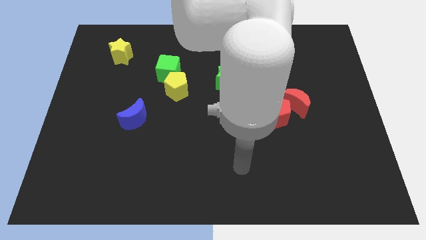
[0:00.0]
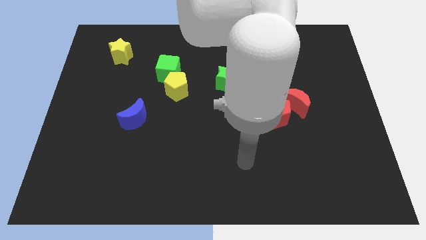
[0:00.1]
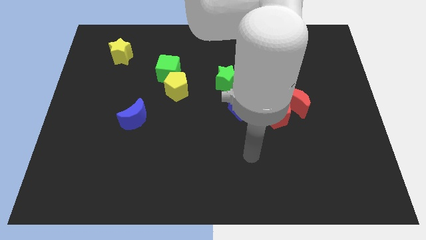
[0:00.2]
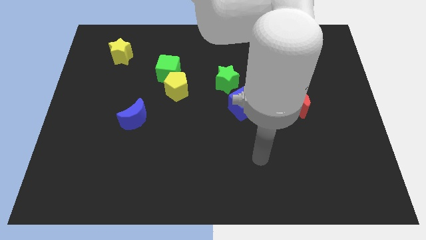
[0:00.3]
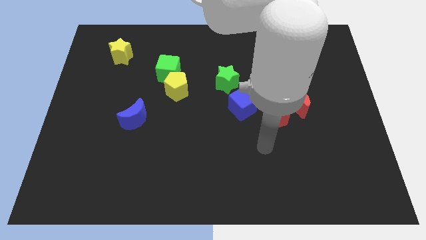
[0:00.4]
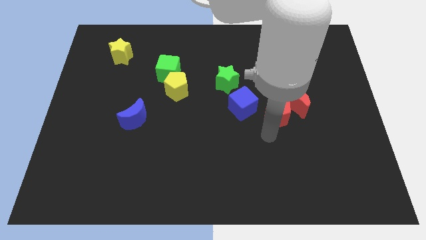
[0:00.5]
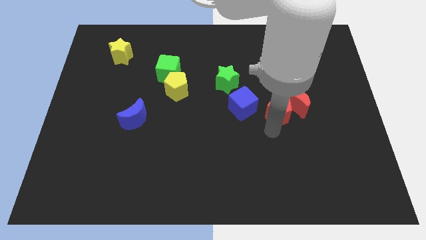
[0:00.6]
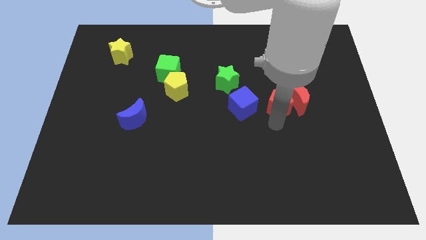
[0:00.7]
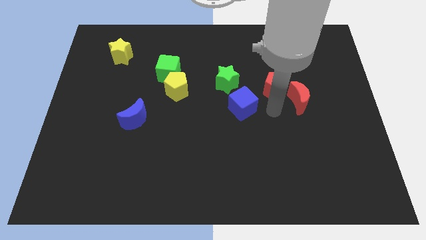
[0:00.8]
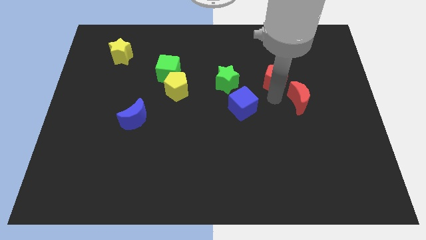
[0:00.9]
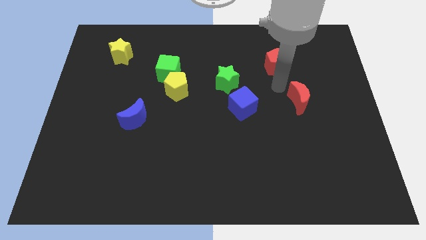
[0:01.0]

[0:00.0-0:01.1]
separate the red moon from the red pentagon

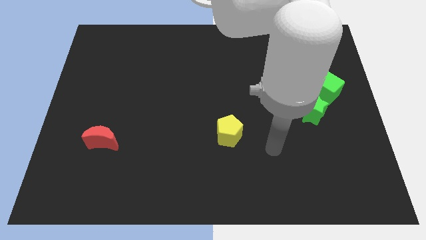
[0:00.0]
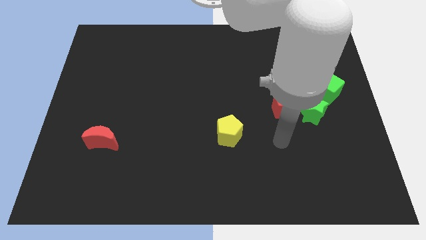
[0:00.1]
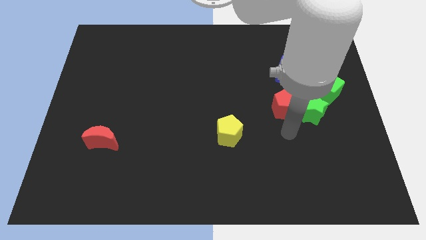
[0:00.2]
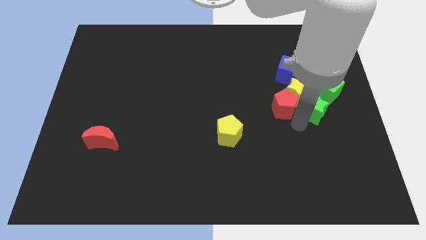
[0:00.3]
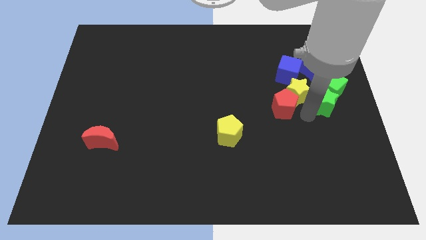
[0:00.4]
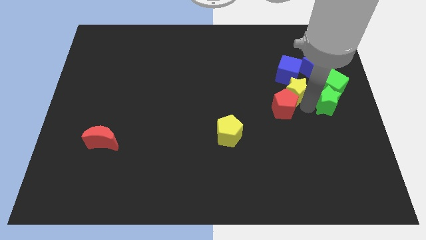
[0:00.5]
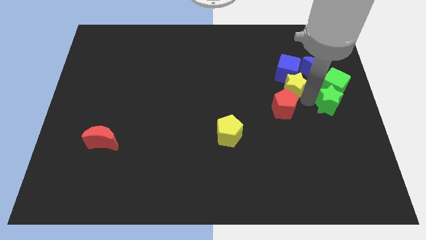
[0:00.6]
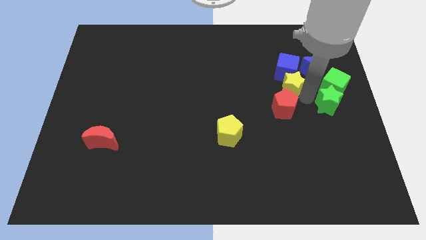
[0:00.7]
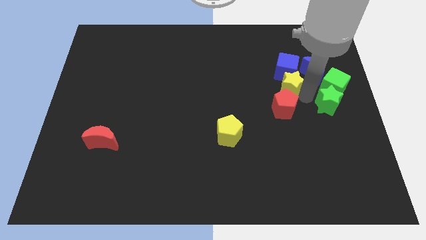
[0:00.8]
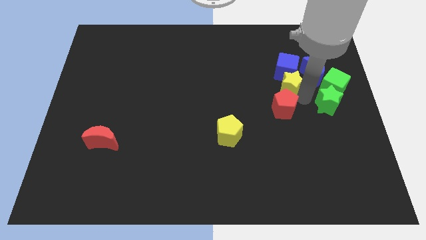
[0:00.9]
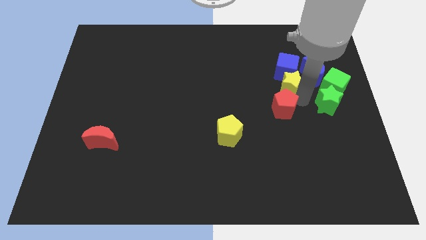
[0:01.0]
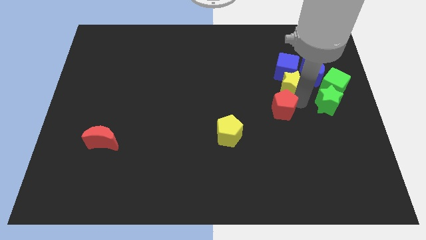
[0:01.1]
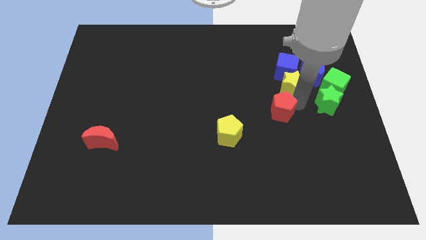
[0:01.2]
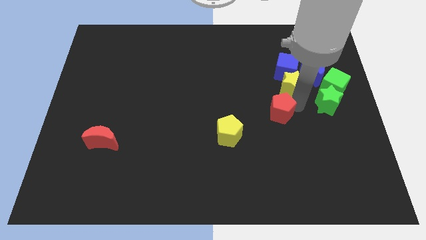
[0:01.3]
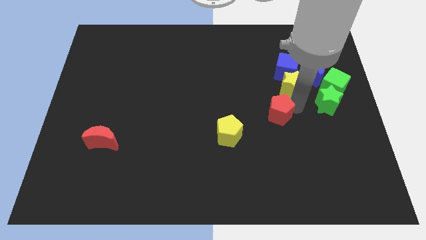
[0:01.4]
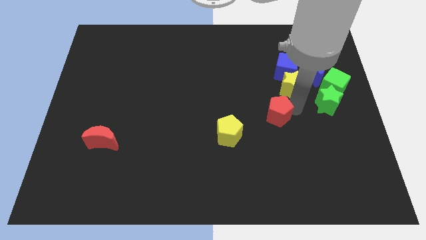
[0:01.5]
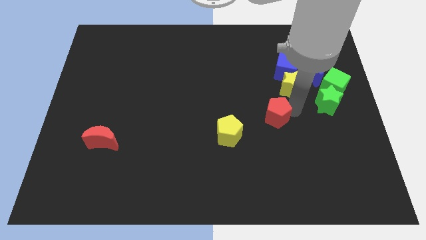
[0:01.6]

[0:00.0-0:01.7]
pull the red pentagon apart from the yellow star and green star

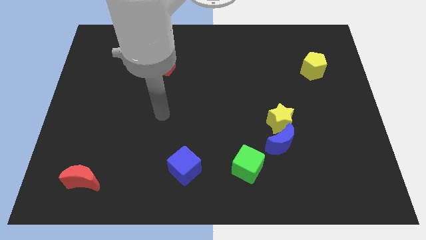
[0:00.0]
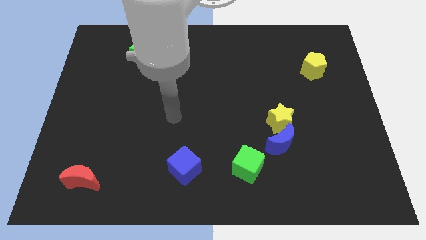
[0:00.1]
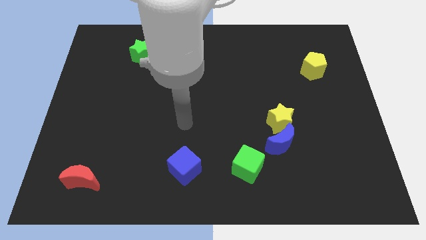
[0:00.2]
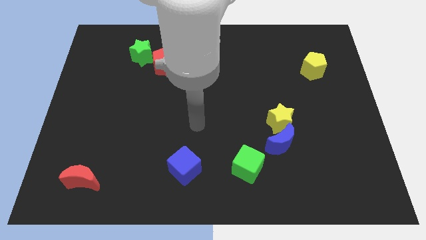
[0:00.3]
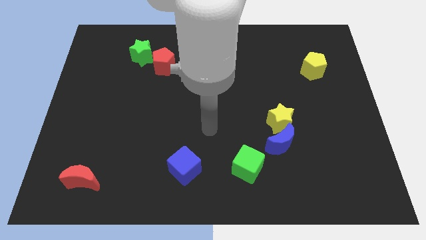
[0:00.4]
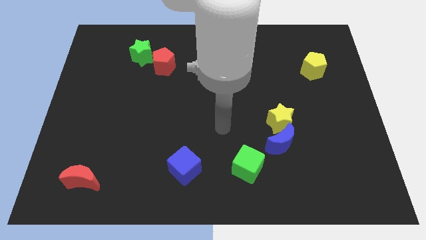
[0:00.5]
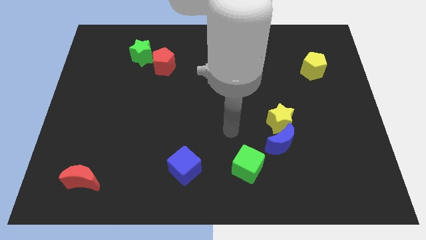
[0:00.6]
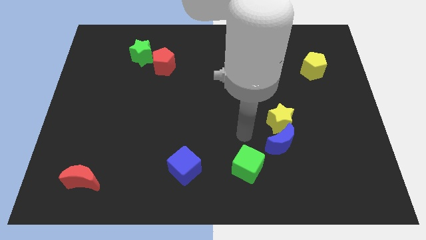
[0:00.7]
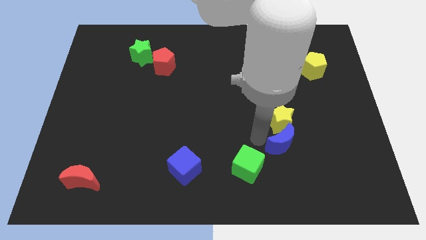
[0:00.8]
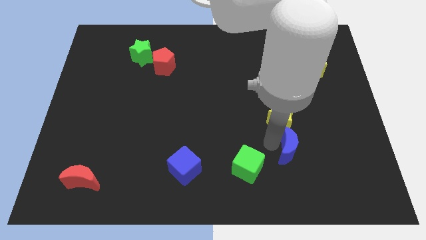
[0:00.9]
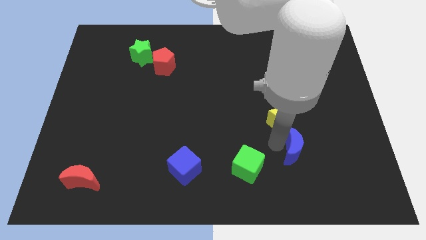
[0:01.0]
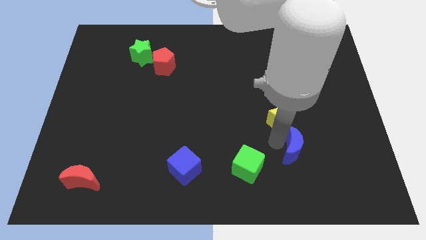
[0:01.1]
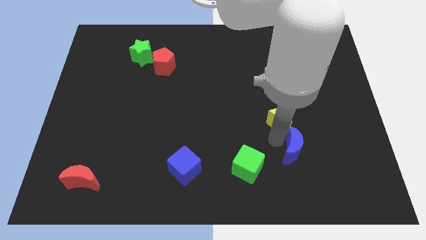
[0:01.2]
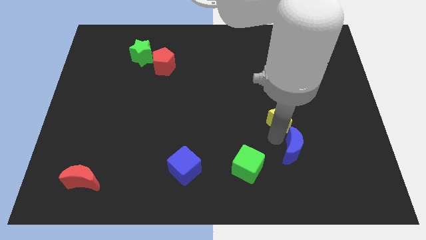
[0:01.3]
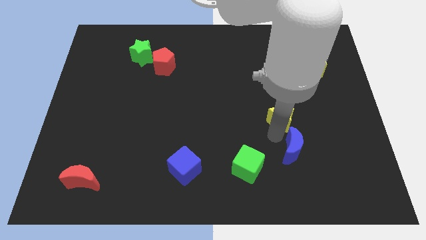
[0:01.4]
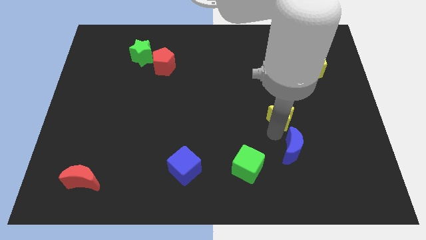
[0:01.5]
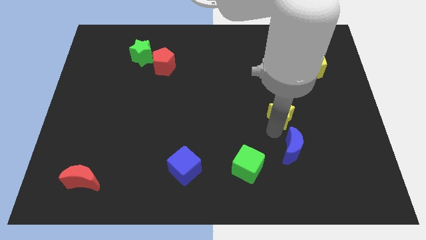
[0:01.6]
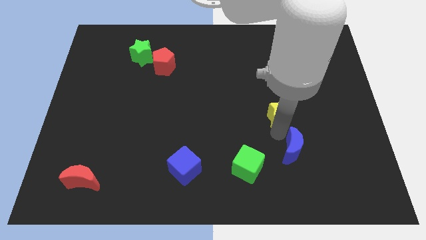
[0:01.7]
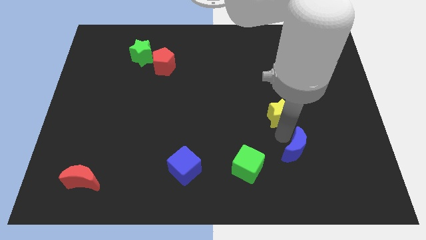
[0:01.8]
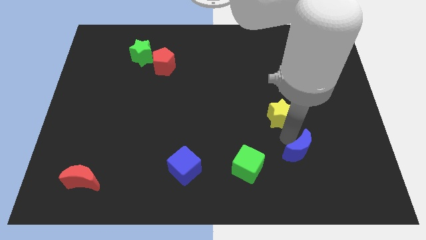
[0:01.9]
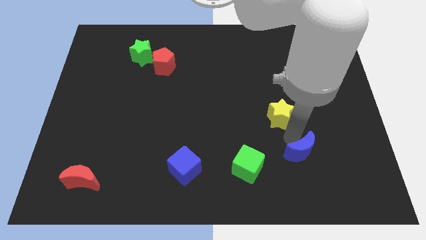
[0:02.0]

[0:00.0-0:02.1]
pull the yellow star apart from the blue moon

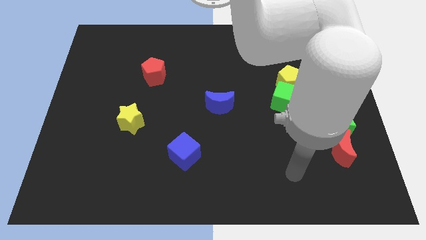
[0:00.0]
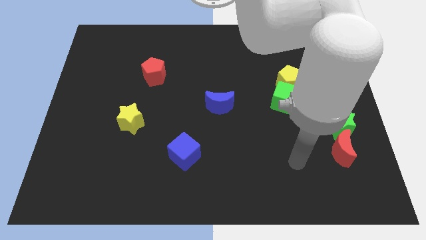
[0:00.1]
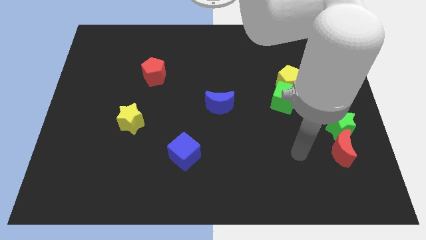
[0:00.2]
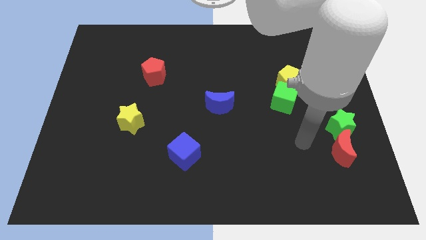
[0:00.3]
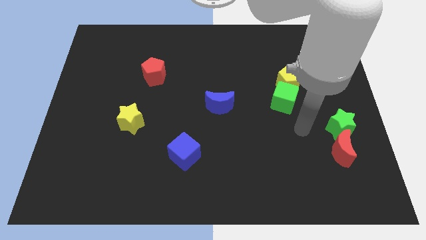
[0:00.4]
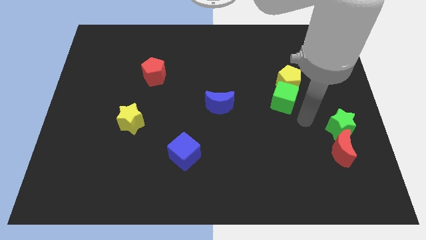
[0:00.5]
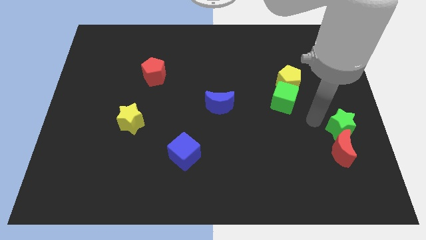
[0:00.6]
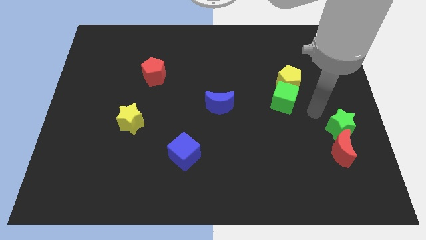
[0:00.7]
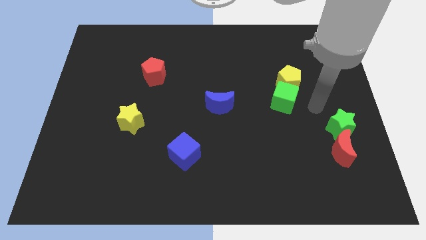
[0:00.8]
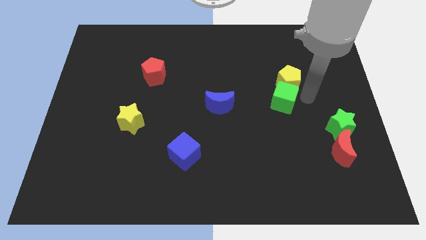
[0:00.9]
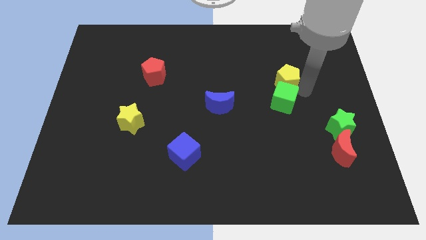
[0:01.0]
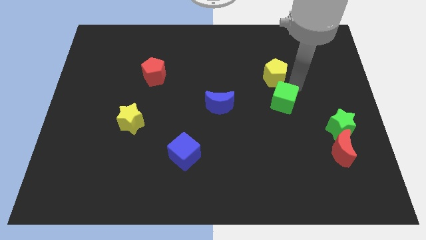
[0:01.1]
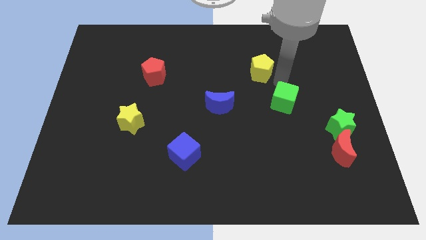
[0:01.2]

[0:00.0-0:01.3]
move the green cube away from the yellow pentagon

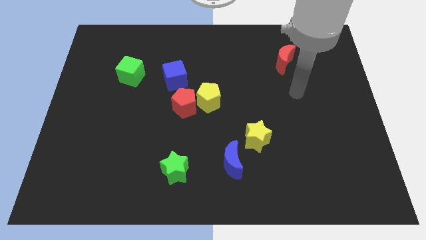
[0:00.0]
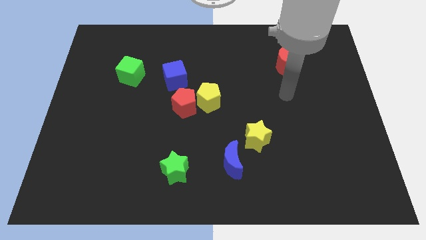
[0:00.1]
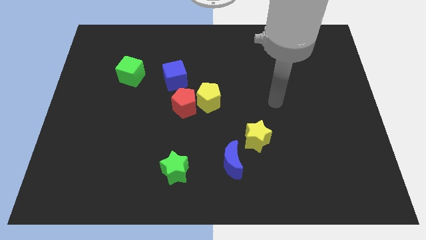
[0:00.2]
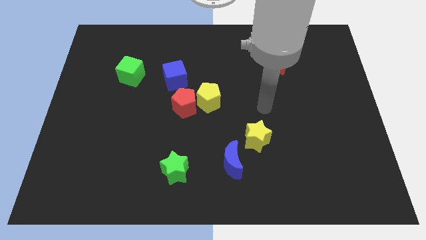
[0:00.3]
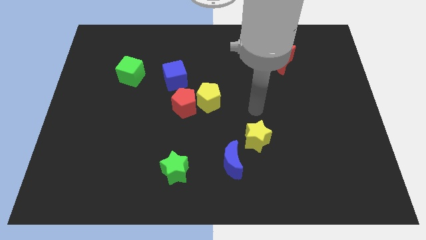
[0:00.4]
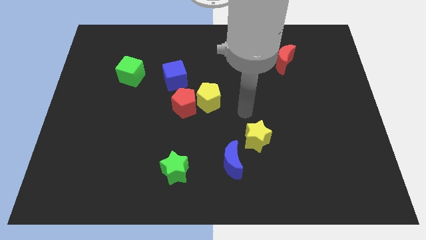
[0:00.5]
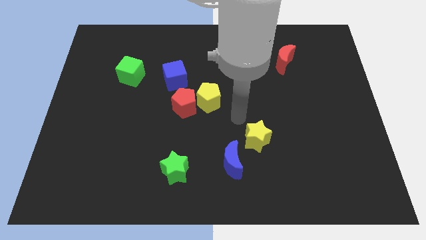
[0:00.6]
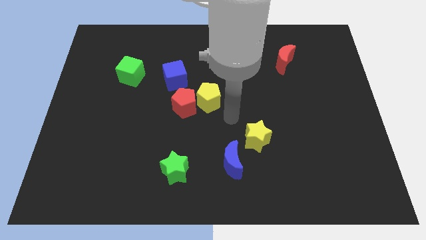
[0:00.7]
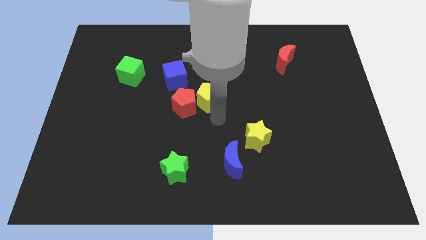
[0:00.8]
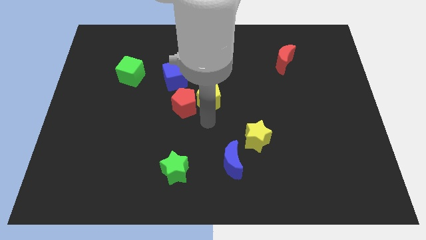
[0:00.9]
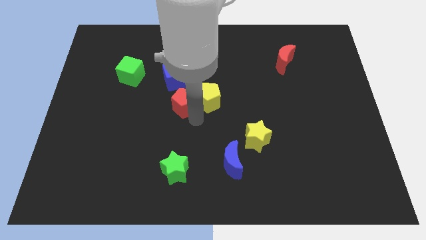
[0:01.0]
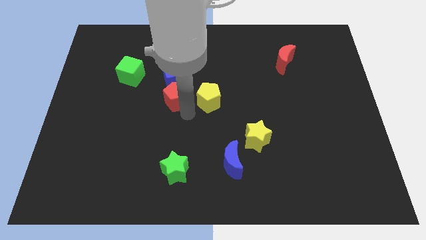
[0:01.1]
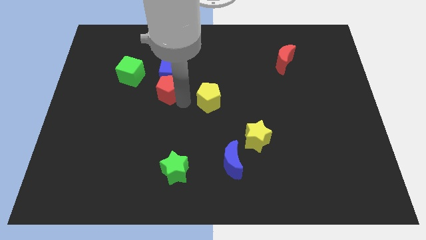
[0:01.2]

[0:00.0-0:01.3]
move the yellow pentagon away from the red pentagon

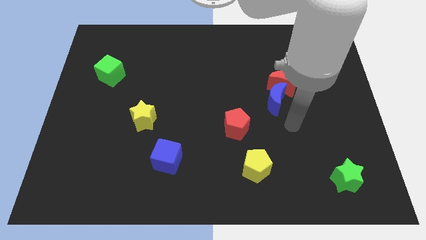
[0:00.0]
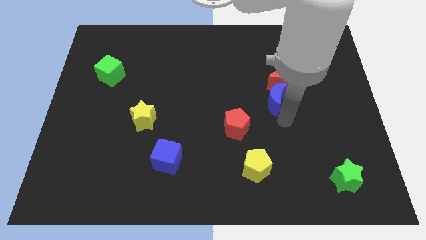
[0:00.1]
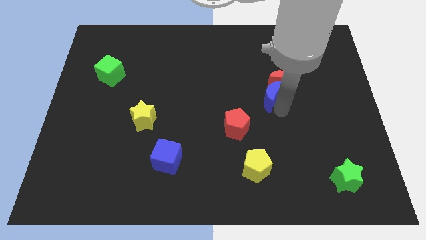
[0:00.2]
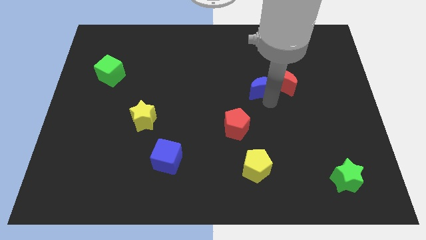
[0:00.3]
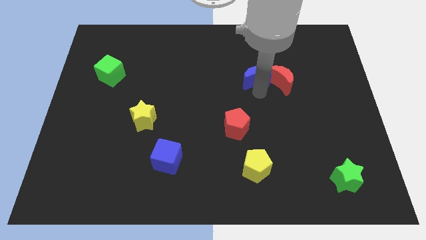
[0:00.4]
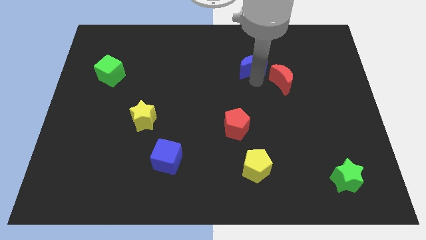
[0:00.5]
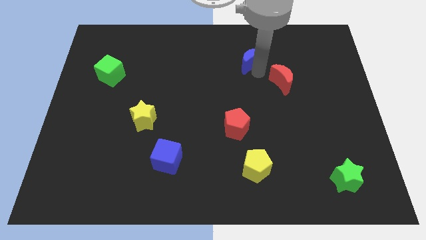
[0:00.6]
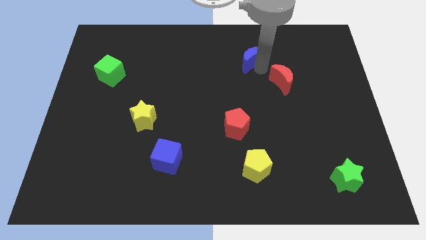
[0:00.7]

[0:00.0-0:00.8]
separate the red moon from the blue moon

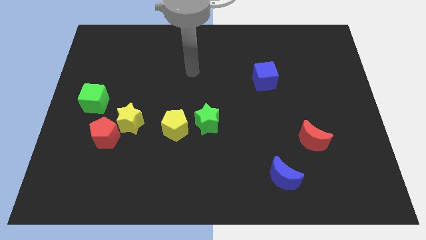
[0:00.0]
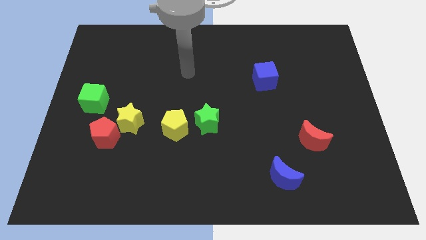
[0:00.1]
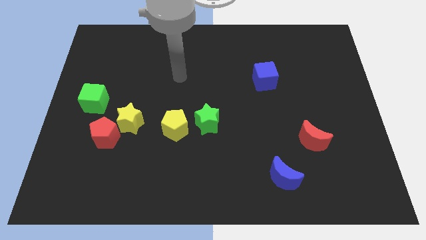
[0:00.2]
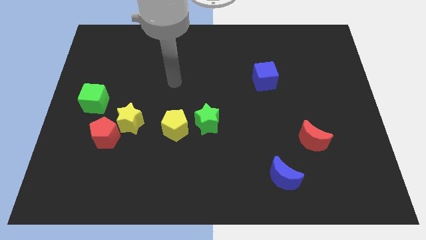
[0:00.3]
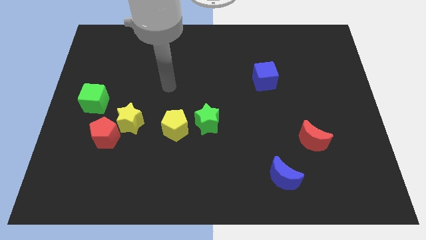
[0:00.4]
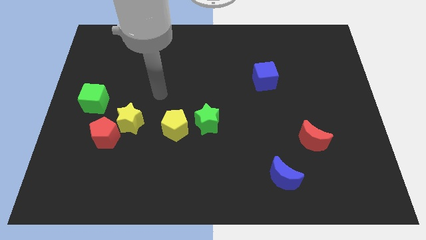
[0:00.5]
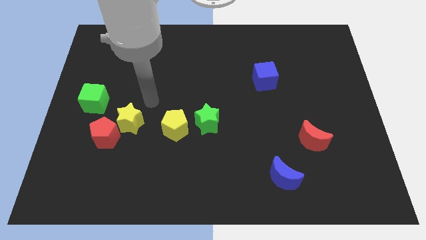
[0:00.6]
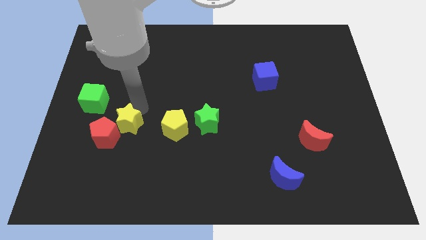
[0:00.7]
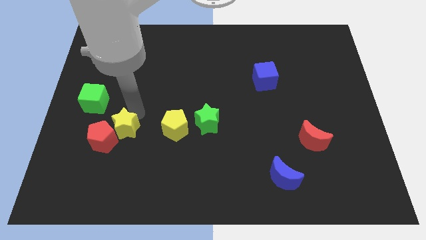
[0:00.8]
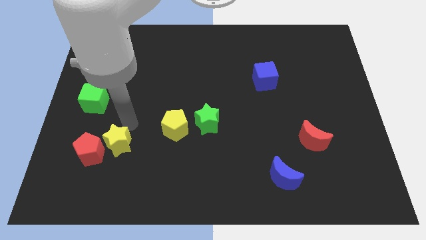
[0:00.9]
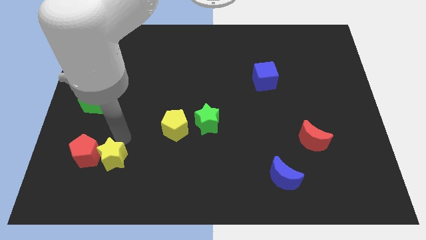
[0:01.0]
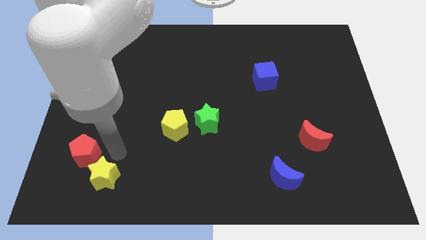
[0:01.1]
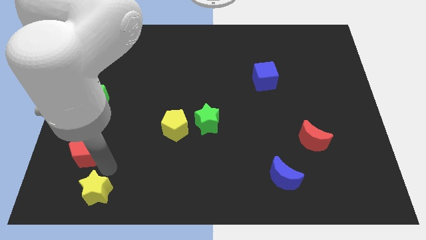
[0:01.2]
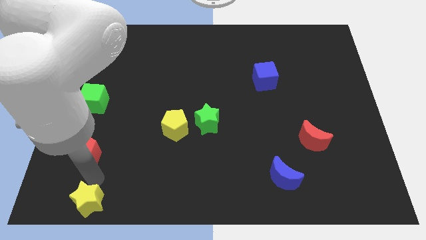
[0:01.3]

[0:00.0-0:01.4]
move the red pentagon away from the yellow star
